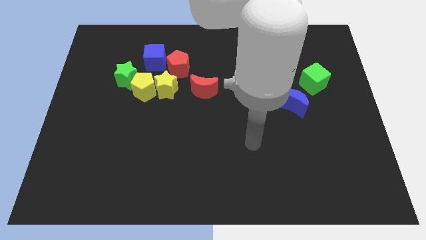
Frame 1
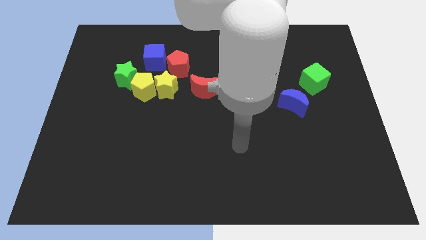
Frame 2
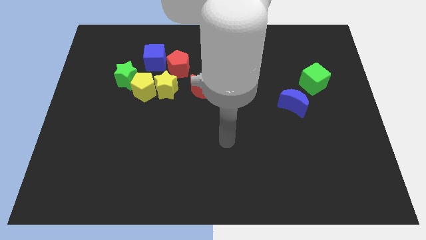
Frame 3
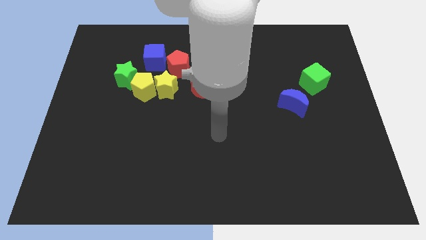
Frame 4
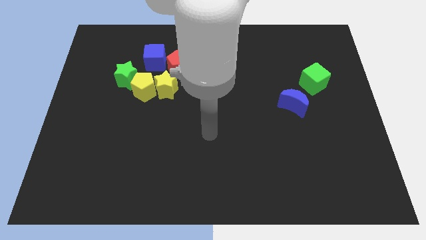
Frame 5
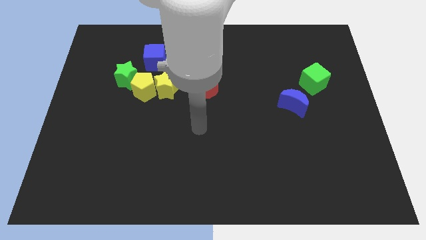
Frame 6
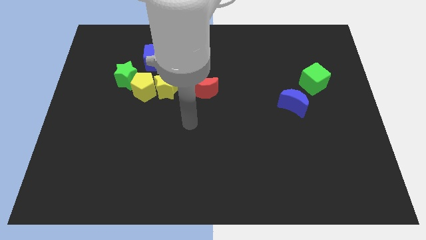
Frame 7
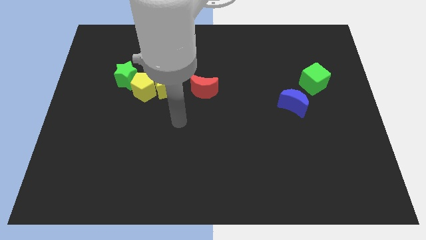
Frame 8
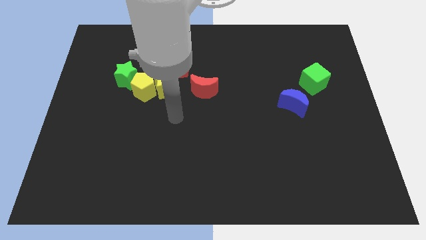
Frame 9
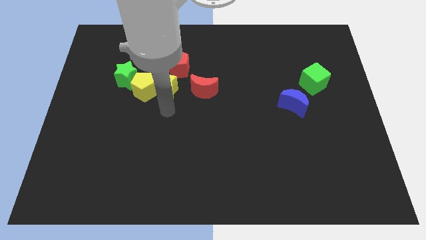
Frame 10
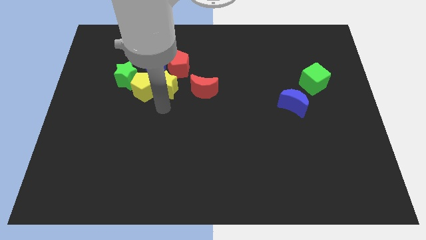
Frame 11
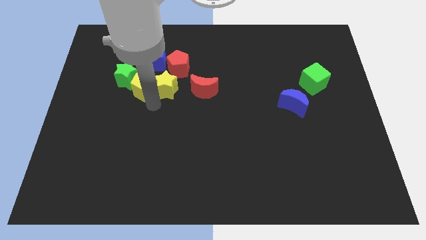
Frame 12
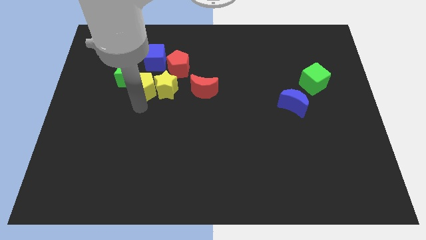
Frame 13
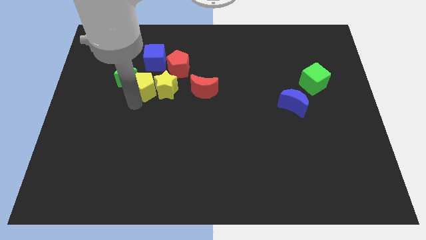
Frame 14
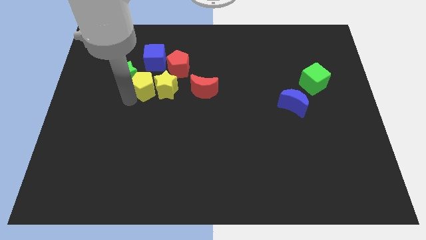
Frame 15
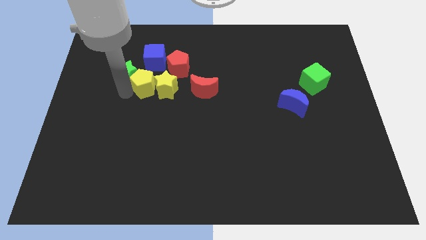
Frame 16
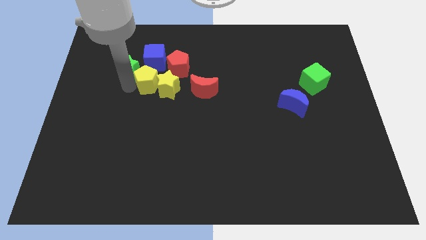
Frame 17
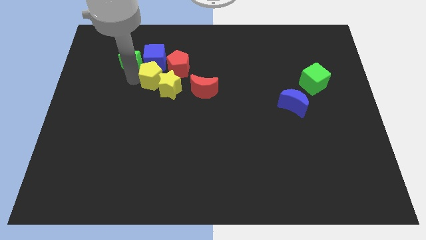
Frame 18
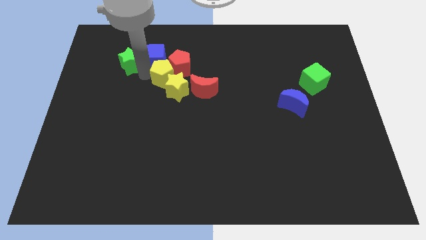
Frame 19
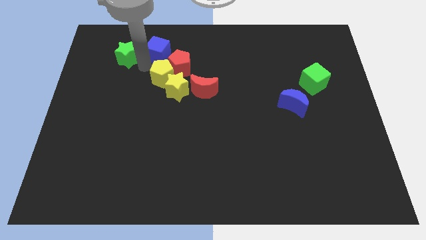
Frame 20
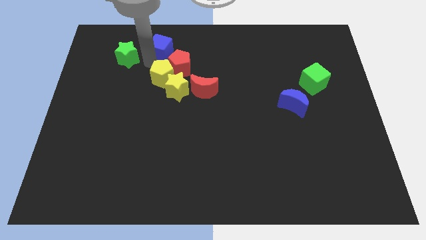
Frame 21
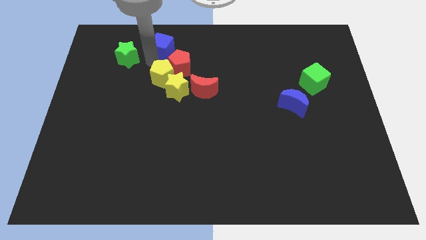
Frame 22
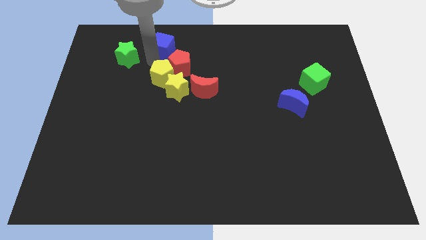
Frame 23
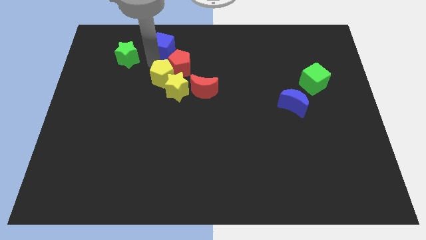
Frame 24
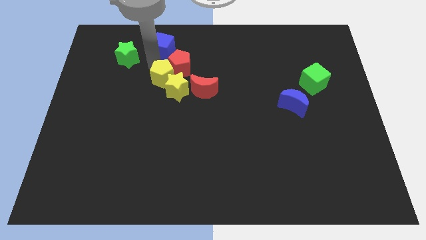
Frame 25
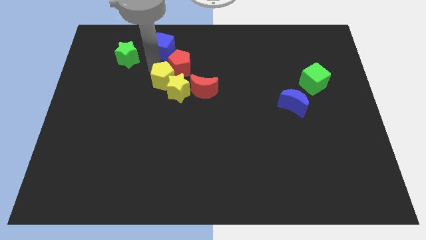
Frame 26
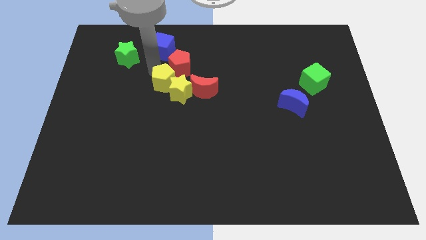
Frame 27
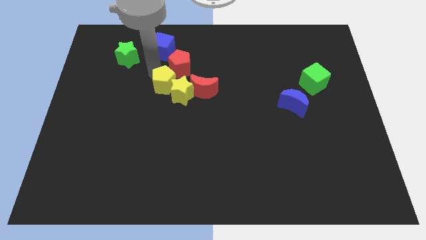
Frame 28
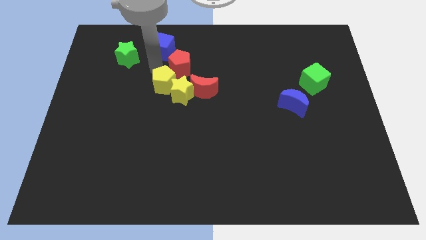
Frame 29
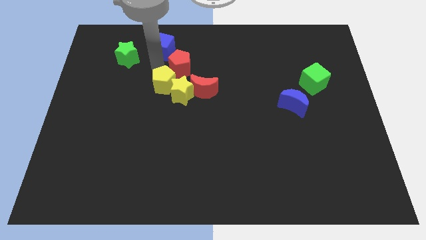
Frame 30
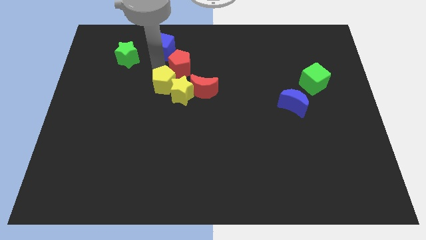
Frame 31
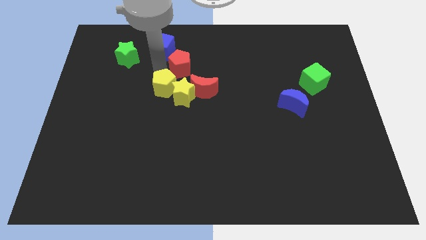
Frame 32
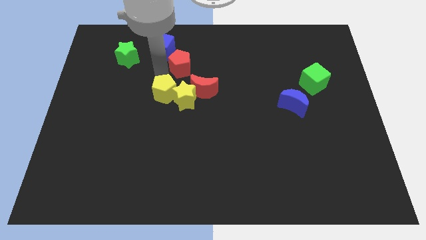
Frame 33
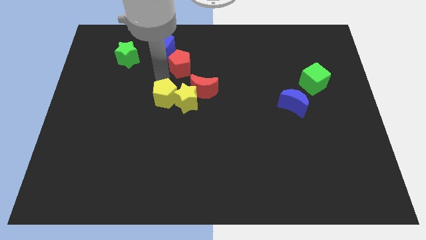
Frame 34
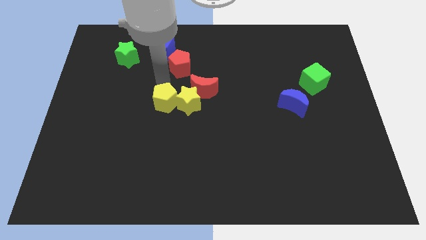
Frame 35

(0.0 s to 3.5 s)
pull the yellow pentagon apart from the green star, yellow star, and blue cube

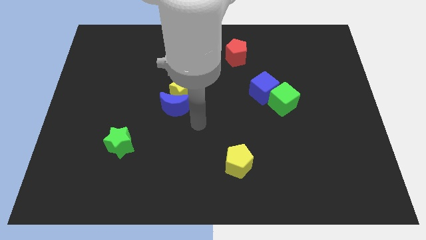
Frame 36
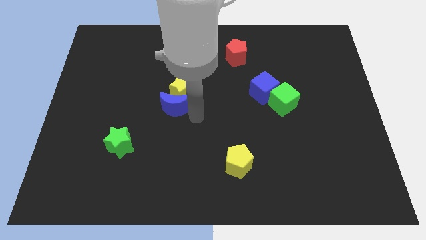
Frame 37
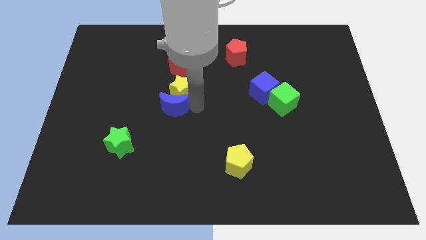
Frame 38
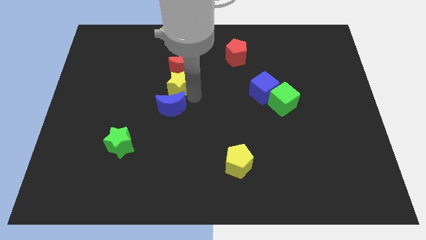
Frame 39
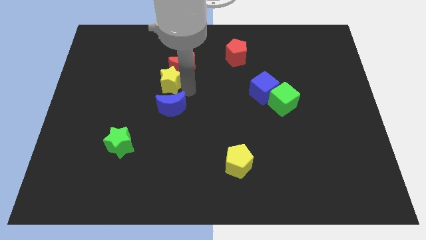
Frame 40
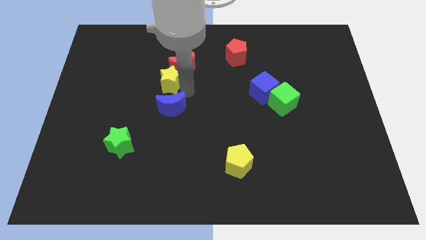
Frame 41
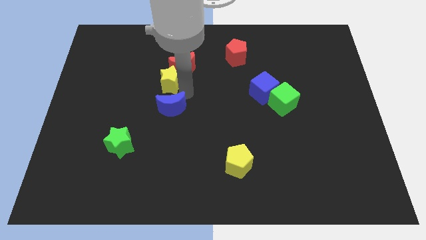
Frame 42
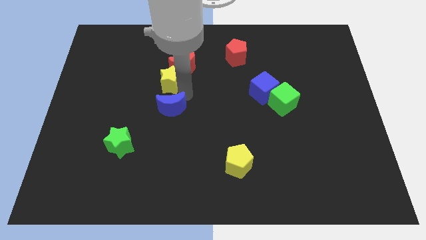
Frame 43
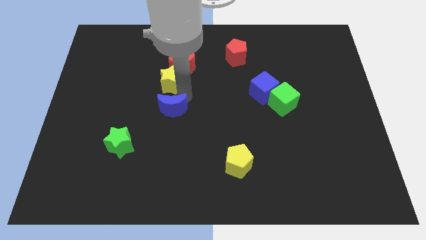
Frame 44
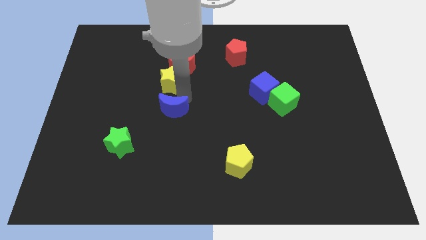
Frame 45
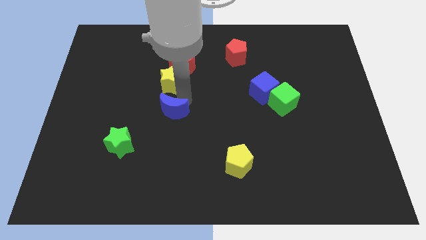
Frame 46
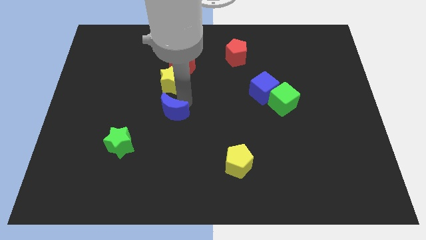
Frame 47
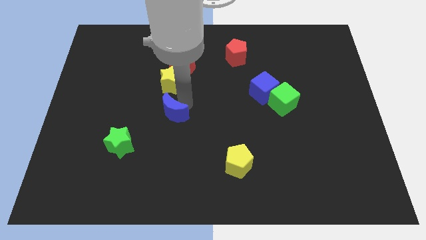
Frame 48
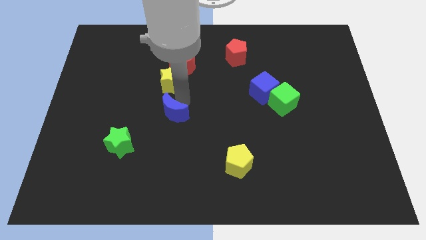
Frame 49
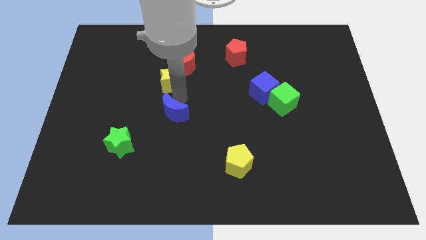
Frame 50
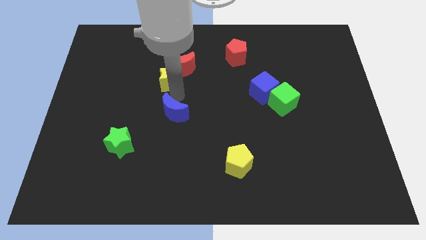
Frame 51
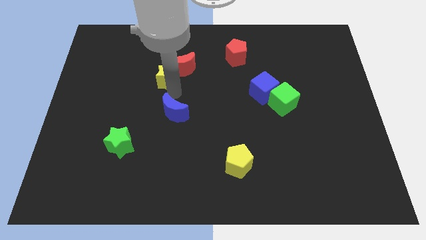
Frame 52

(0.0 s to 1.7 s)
move the blue moon away from the yellow star

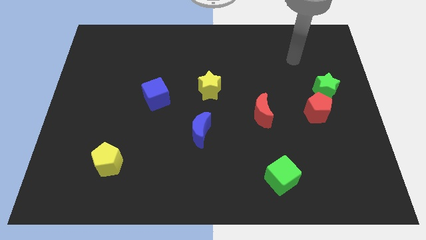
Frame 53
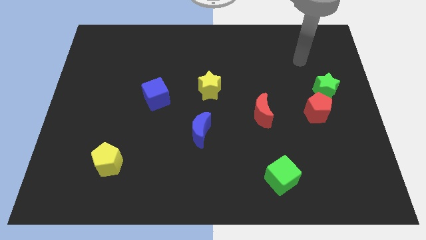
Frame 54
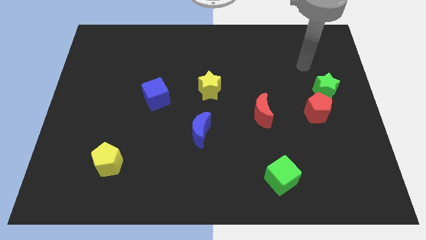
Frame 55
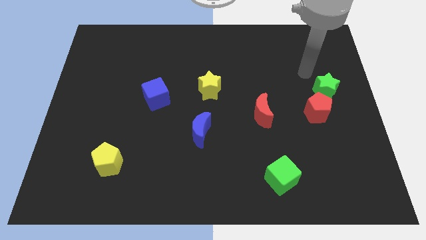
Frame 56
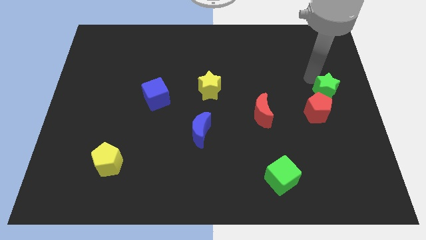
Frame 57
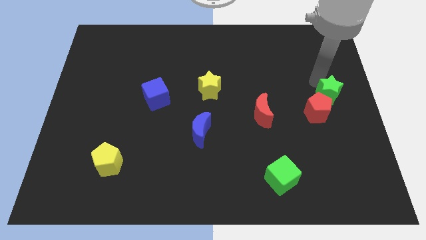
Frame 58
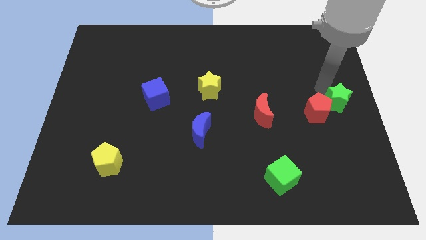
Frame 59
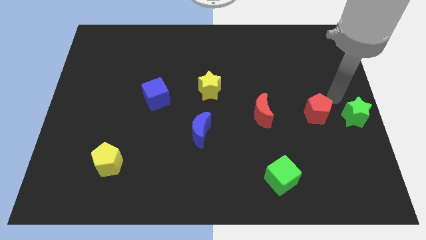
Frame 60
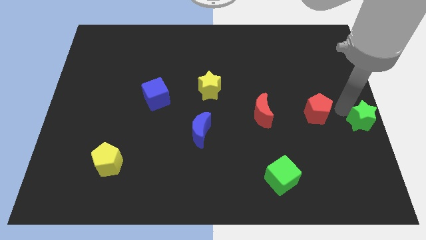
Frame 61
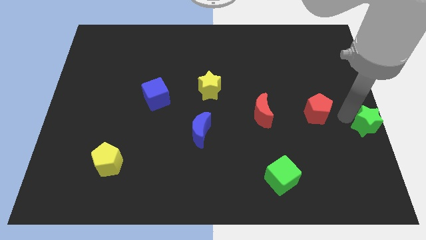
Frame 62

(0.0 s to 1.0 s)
move the red pentagon away from the green star

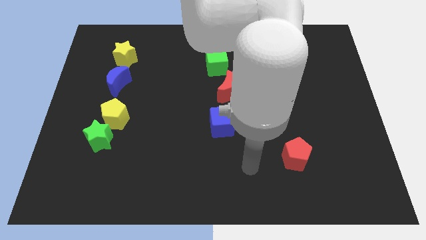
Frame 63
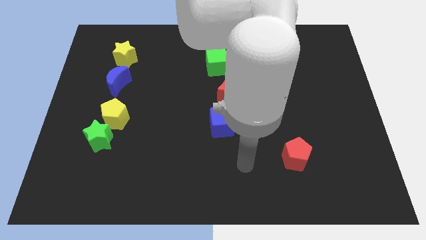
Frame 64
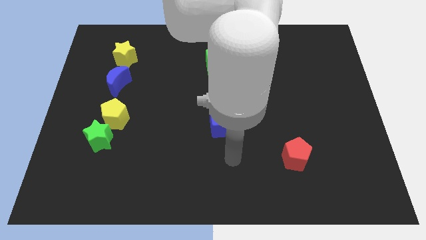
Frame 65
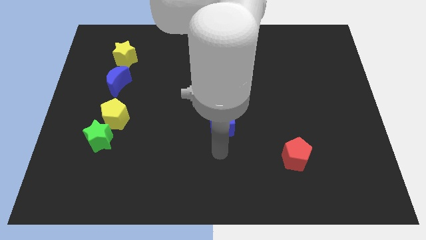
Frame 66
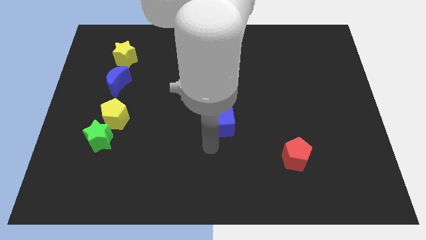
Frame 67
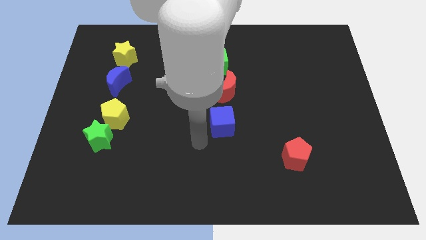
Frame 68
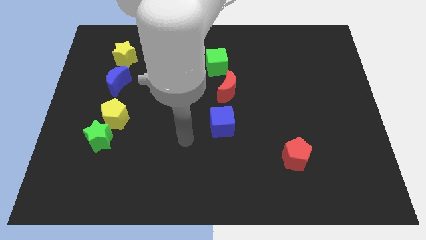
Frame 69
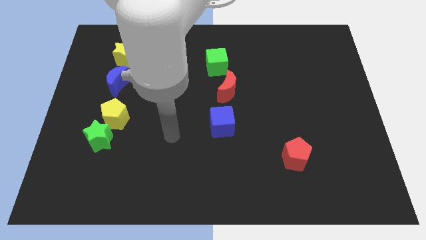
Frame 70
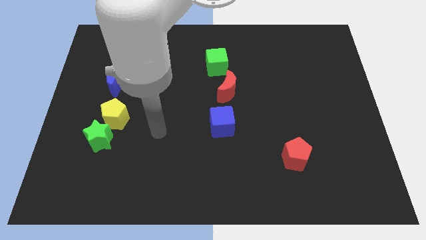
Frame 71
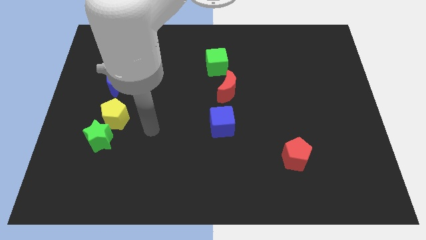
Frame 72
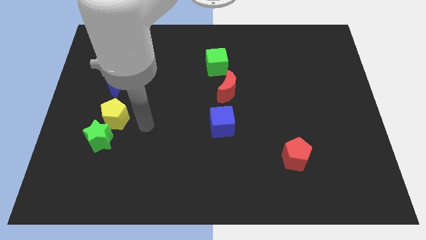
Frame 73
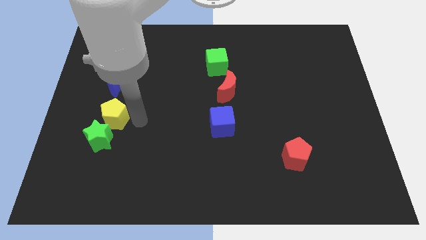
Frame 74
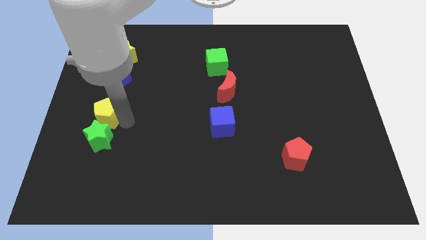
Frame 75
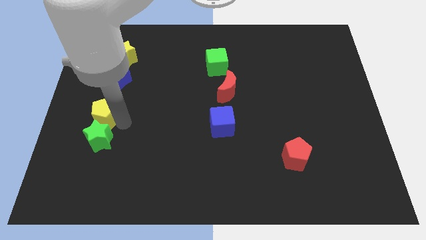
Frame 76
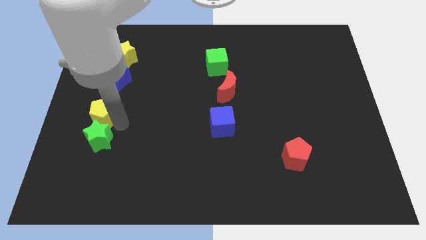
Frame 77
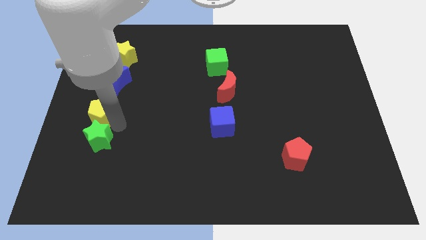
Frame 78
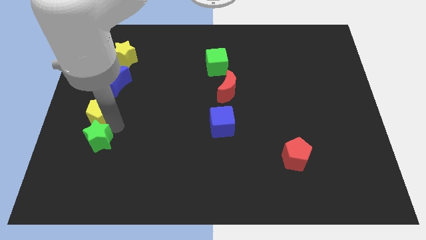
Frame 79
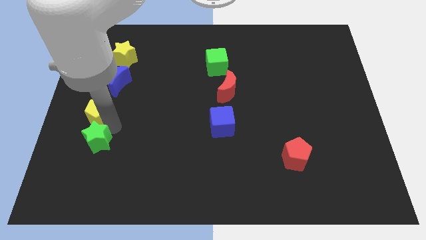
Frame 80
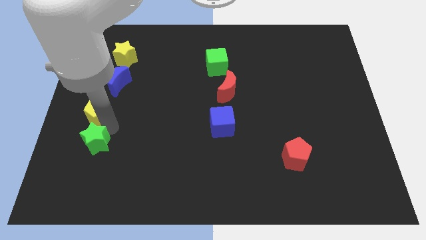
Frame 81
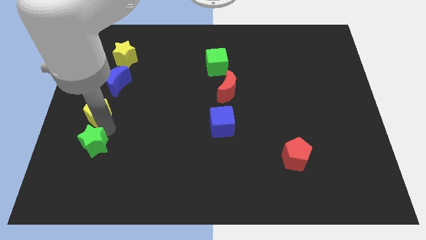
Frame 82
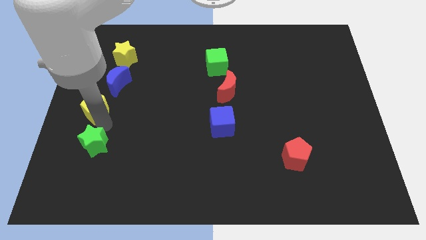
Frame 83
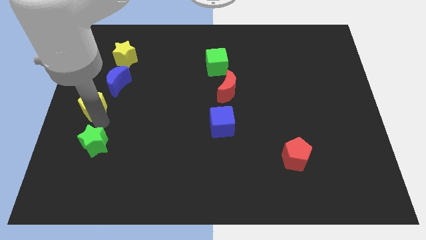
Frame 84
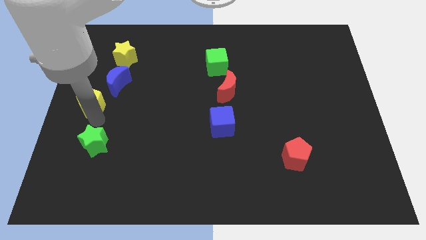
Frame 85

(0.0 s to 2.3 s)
separate the green star from the yellow pentagon

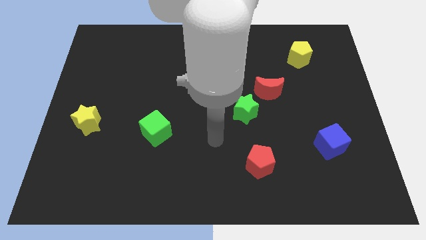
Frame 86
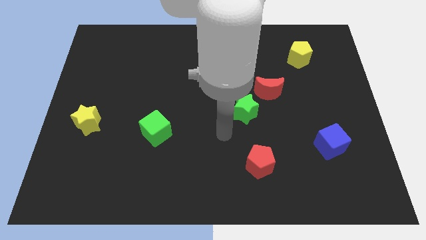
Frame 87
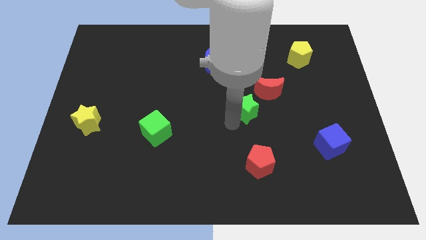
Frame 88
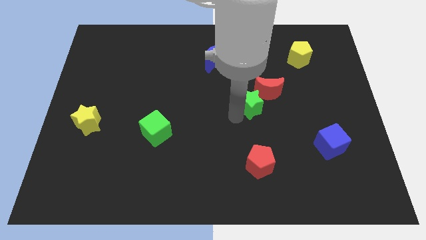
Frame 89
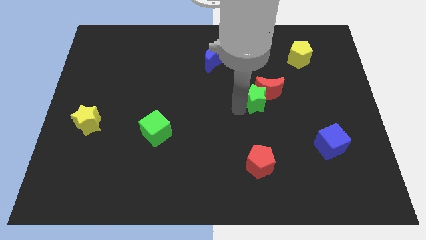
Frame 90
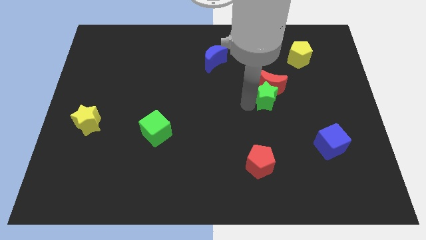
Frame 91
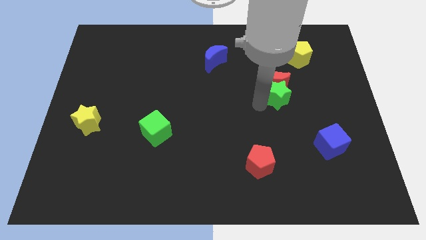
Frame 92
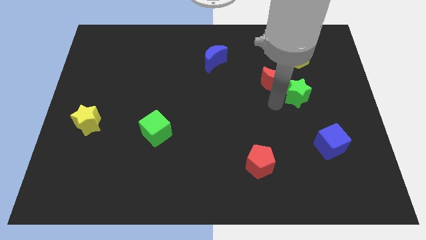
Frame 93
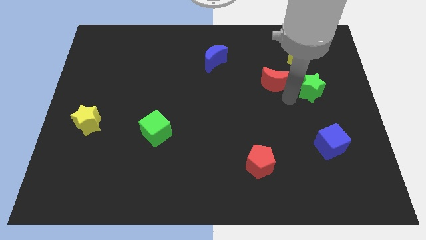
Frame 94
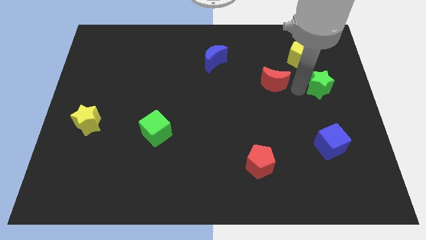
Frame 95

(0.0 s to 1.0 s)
pull the red moon apart from the green star

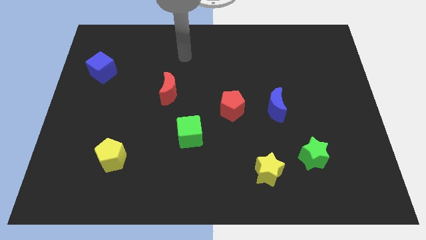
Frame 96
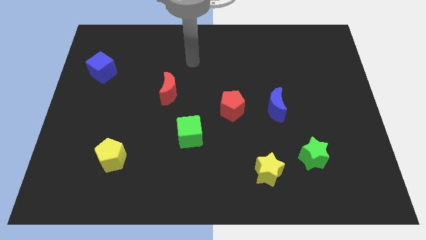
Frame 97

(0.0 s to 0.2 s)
move the red pentagon away from the blue moon
